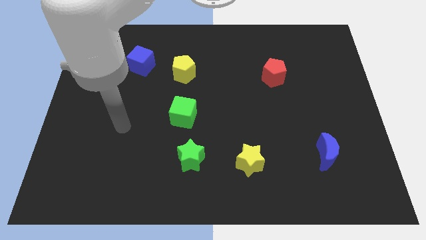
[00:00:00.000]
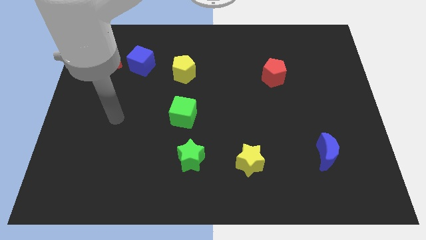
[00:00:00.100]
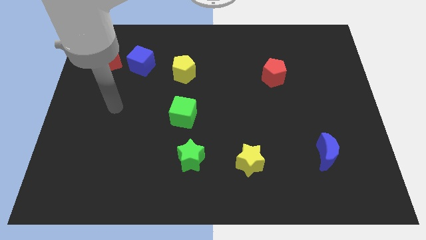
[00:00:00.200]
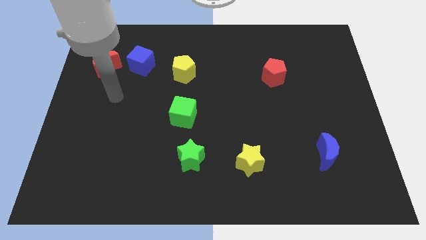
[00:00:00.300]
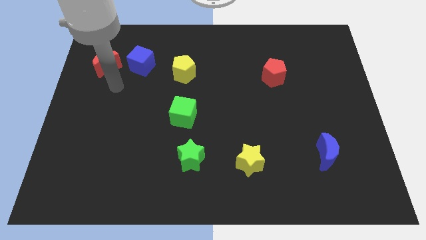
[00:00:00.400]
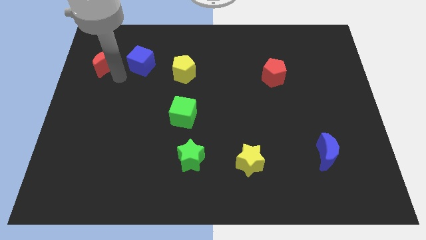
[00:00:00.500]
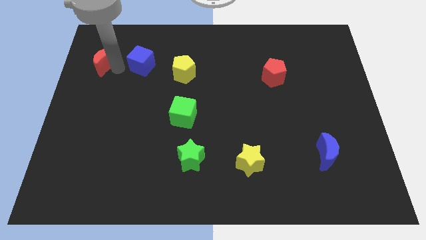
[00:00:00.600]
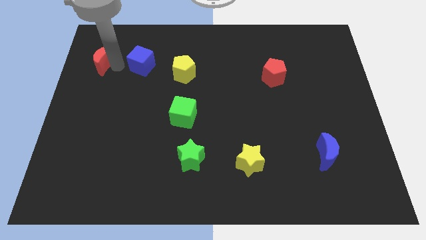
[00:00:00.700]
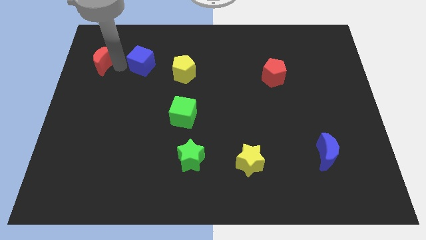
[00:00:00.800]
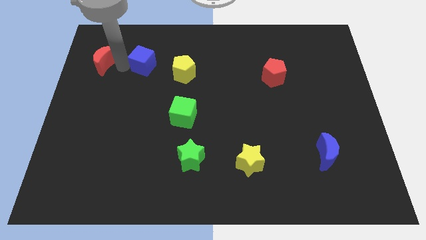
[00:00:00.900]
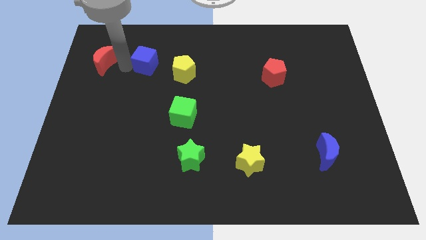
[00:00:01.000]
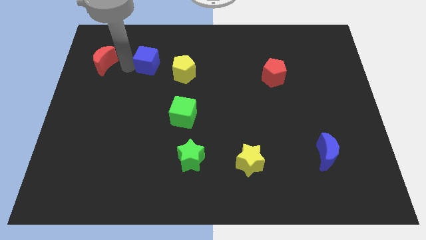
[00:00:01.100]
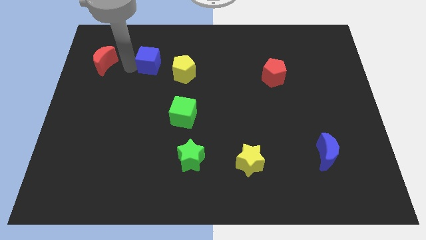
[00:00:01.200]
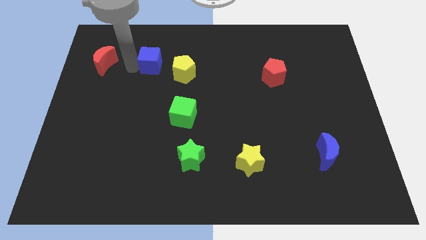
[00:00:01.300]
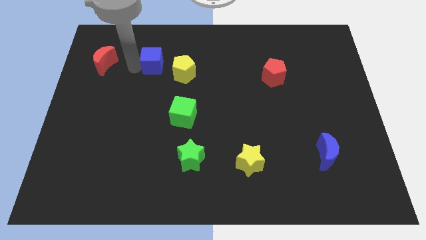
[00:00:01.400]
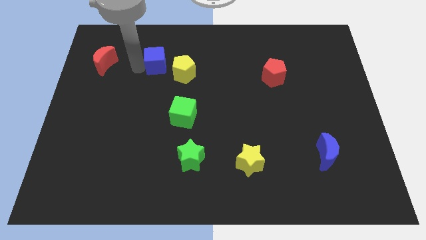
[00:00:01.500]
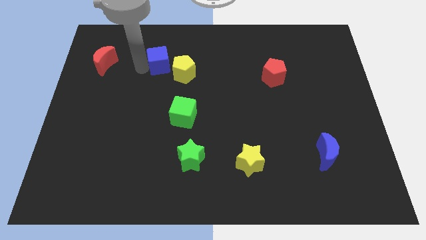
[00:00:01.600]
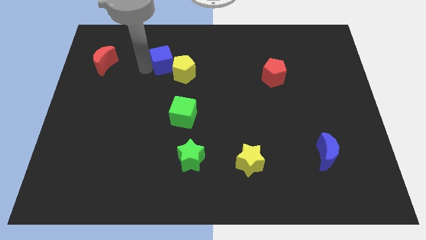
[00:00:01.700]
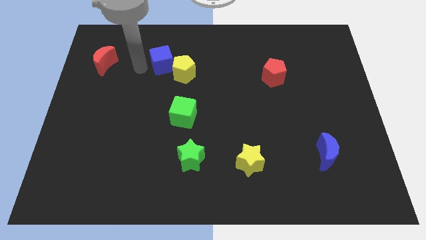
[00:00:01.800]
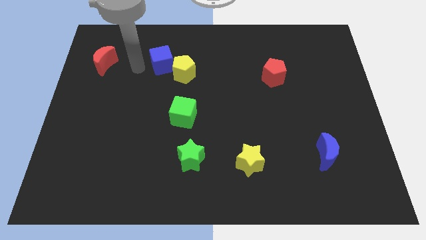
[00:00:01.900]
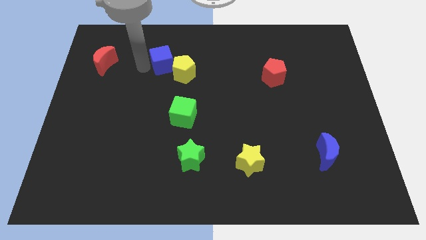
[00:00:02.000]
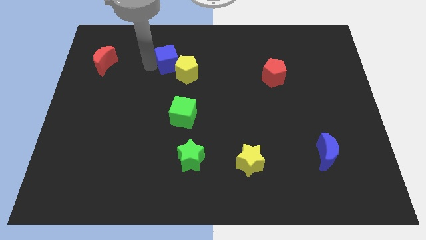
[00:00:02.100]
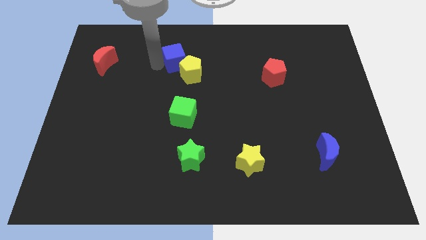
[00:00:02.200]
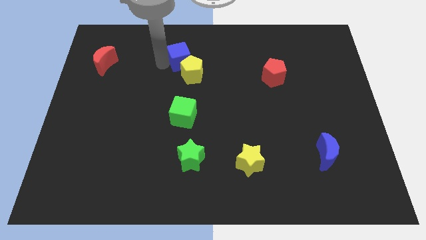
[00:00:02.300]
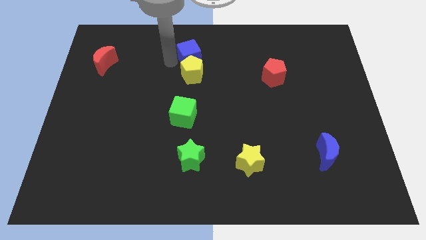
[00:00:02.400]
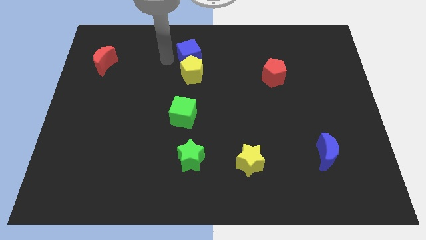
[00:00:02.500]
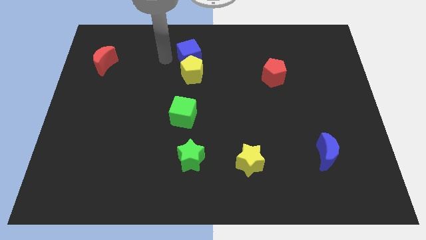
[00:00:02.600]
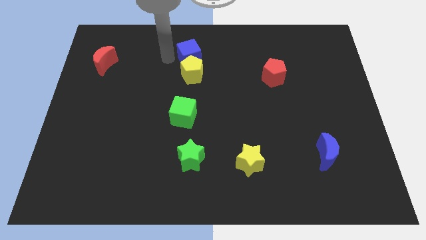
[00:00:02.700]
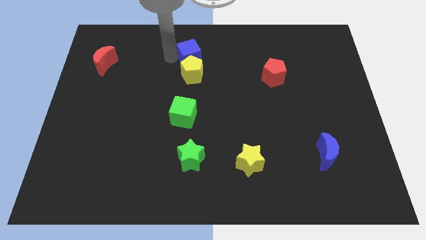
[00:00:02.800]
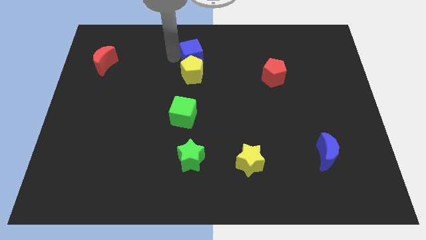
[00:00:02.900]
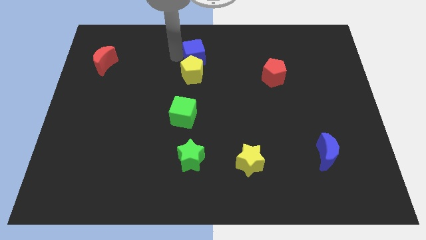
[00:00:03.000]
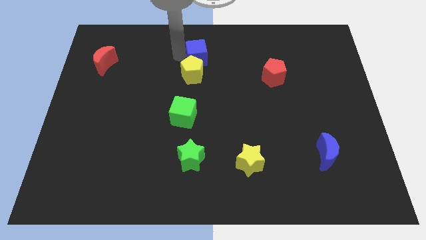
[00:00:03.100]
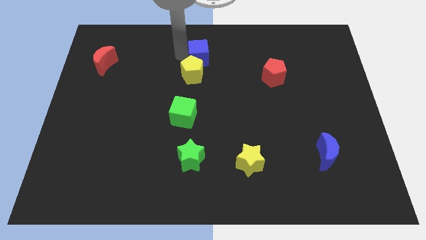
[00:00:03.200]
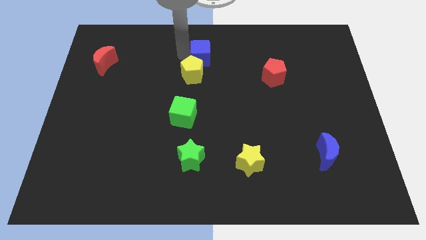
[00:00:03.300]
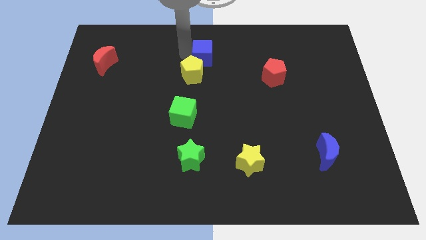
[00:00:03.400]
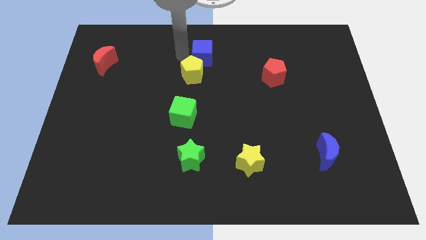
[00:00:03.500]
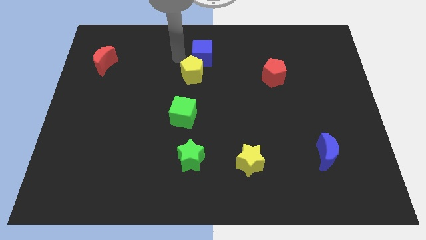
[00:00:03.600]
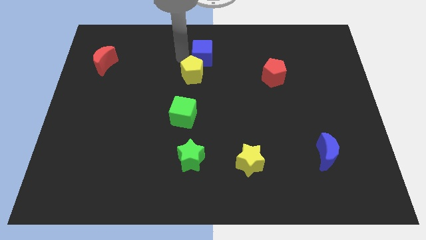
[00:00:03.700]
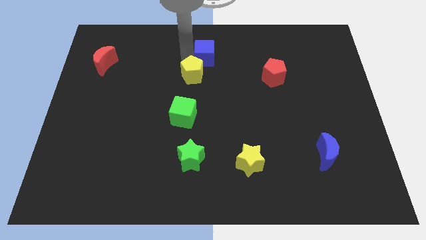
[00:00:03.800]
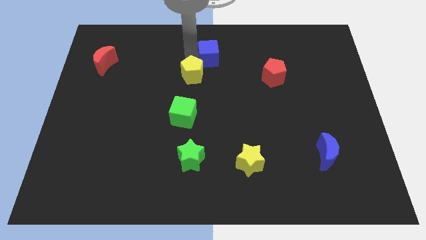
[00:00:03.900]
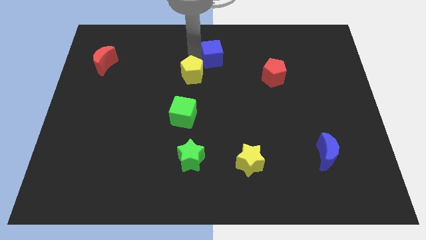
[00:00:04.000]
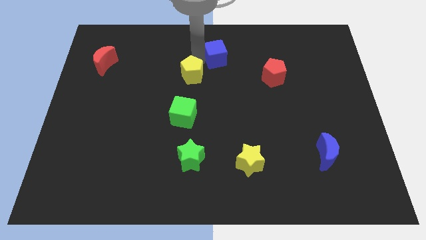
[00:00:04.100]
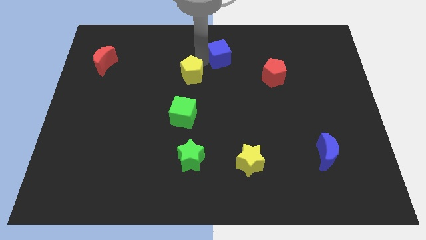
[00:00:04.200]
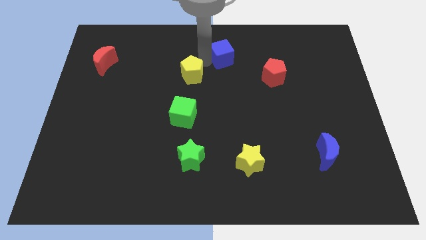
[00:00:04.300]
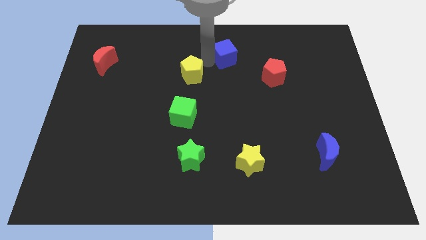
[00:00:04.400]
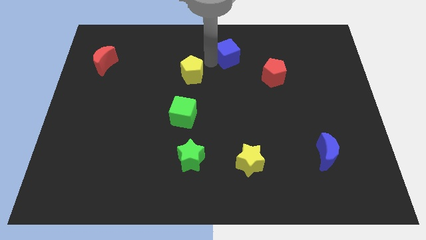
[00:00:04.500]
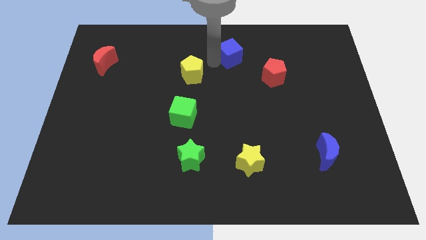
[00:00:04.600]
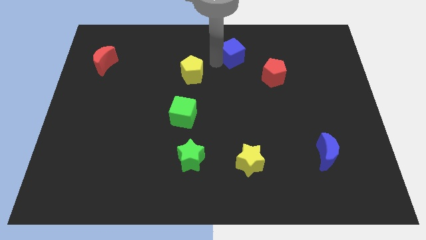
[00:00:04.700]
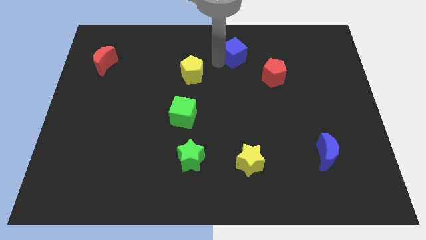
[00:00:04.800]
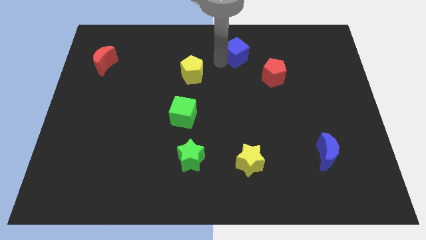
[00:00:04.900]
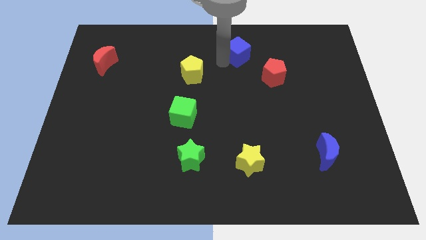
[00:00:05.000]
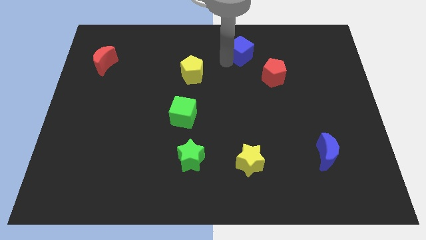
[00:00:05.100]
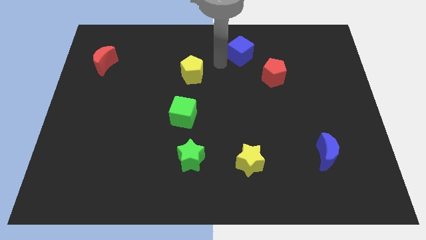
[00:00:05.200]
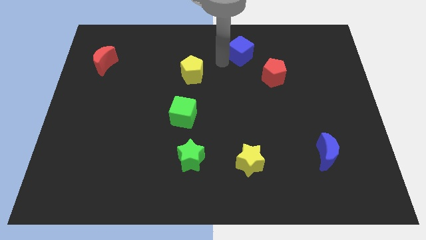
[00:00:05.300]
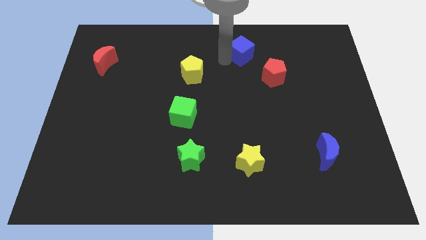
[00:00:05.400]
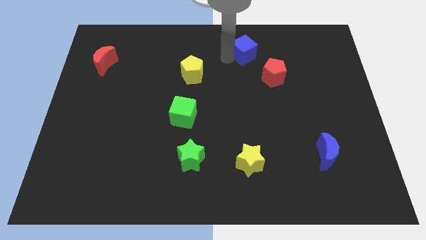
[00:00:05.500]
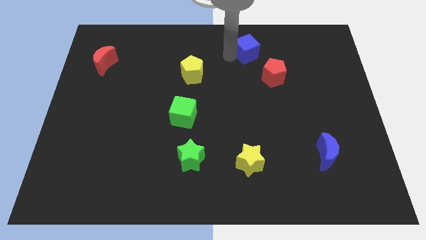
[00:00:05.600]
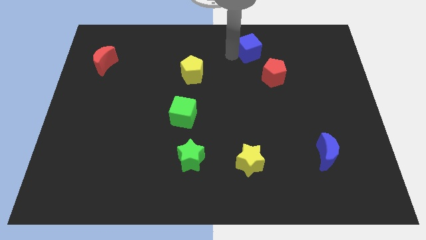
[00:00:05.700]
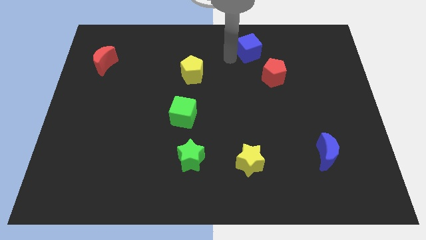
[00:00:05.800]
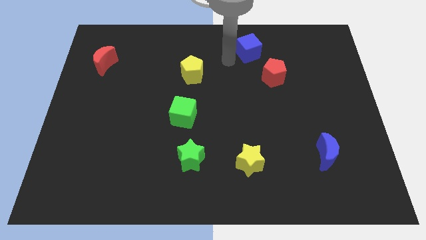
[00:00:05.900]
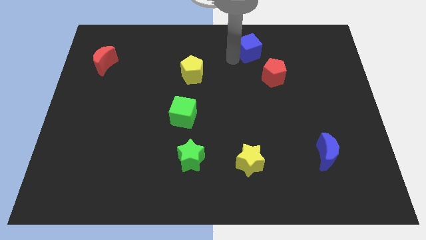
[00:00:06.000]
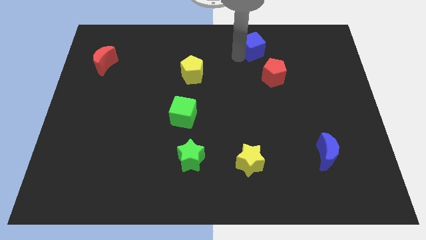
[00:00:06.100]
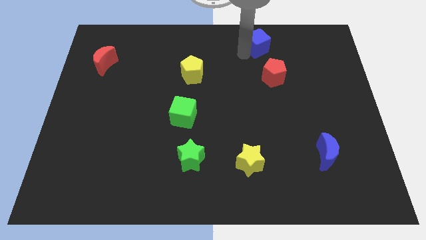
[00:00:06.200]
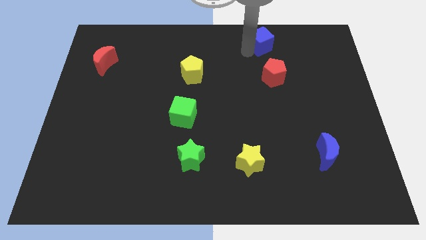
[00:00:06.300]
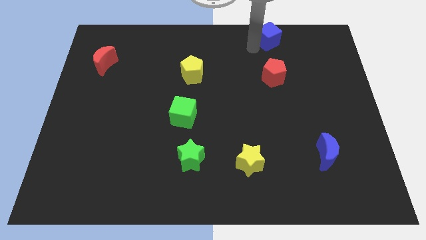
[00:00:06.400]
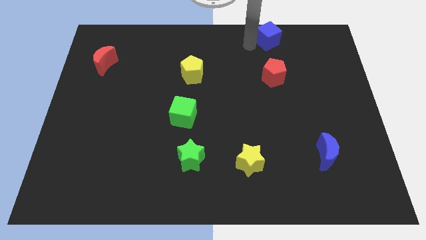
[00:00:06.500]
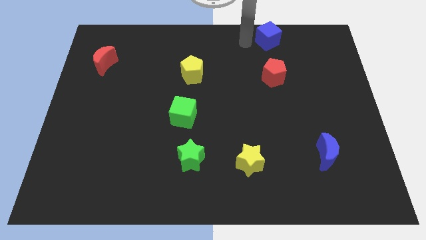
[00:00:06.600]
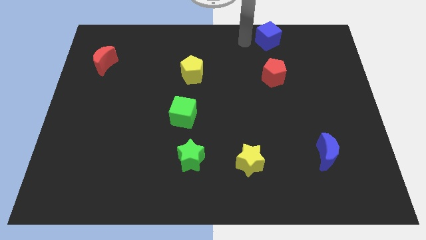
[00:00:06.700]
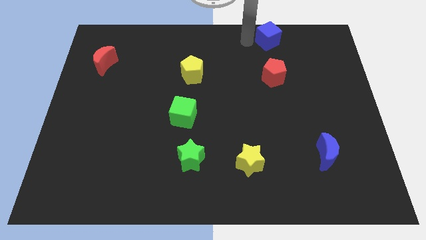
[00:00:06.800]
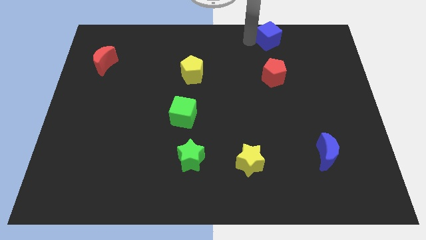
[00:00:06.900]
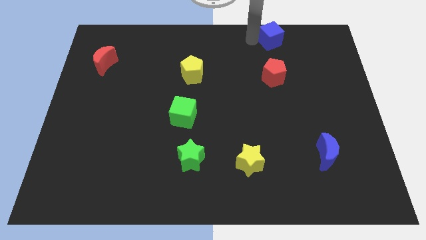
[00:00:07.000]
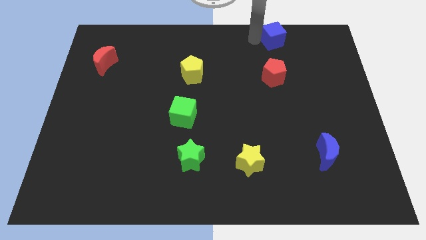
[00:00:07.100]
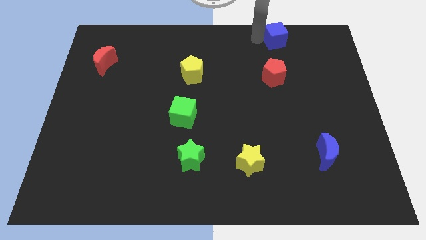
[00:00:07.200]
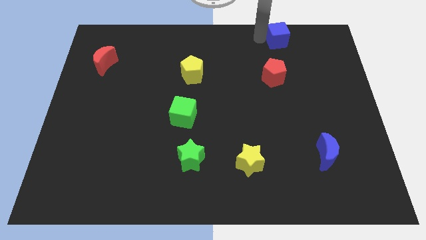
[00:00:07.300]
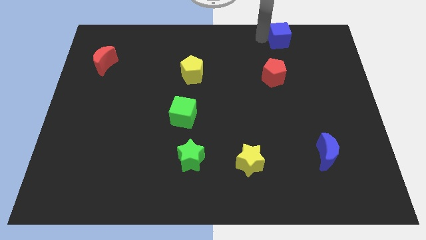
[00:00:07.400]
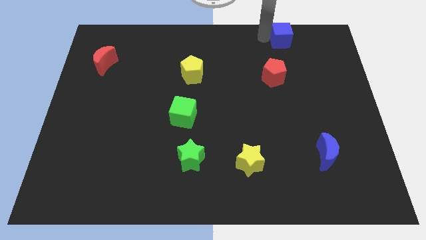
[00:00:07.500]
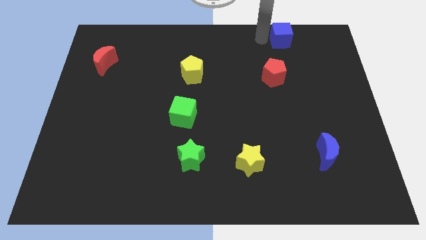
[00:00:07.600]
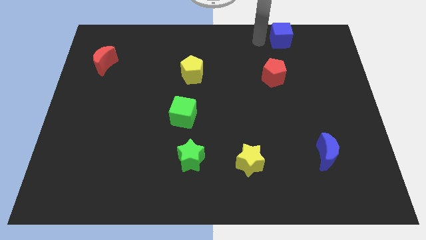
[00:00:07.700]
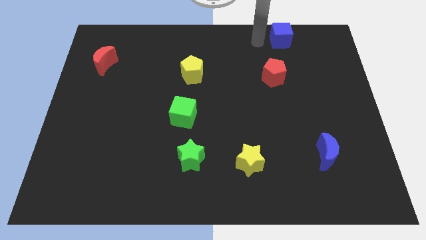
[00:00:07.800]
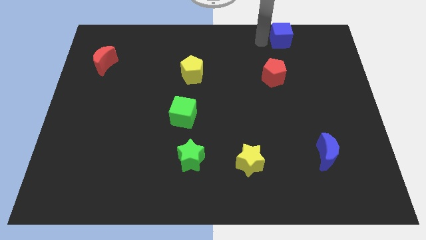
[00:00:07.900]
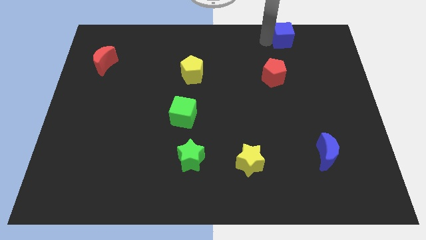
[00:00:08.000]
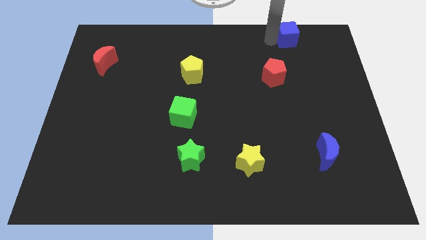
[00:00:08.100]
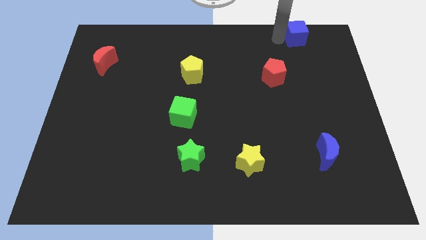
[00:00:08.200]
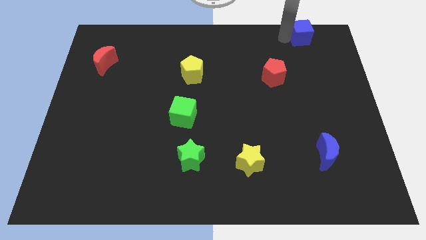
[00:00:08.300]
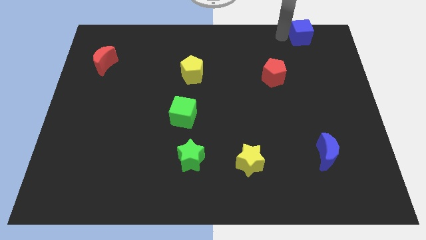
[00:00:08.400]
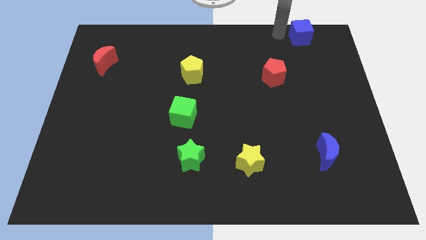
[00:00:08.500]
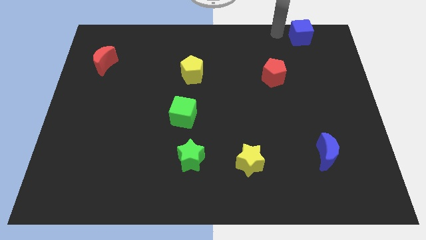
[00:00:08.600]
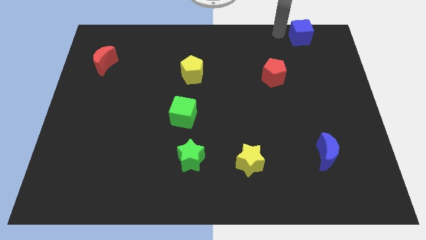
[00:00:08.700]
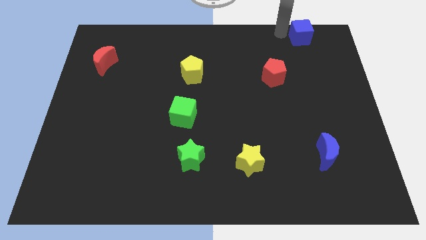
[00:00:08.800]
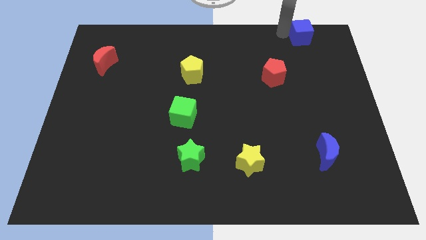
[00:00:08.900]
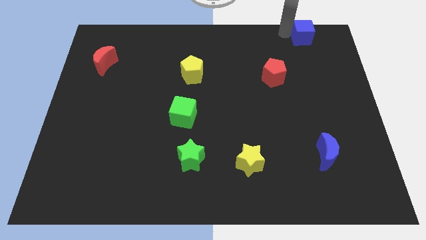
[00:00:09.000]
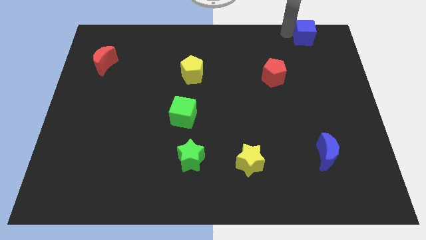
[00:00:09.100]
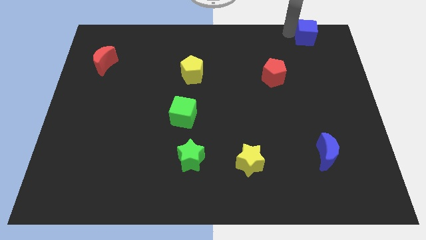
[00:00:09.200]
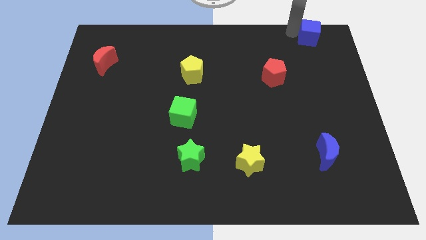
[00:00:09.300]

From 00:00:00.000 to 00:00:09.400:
push the blue cube to the top right of the board
